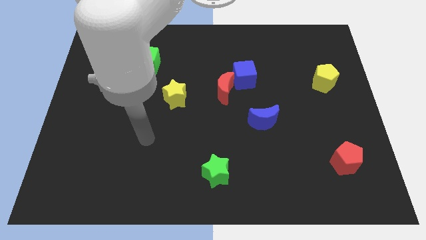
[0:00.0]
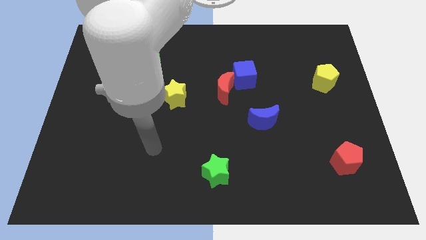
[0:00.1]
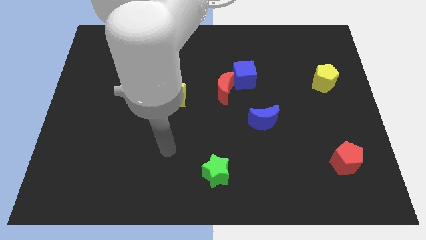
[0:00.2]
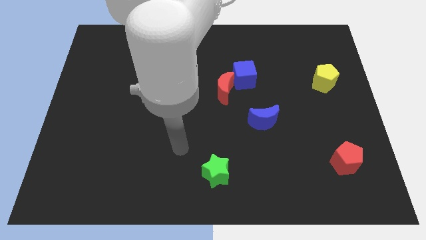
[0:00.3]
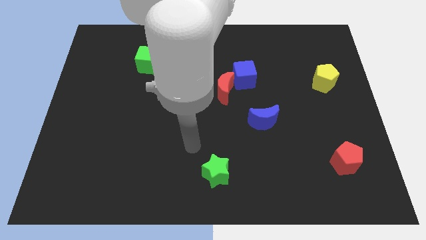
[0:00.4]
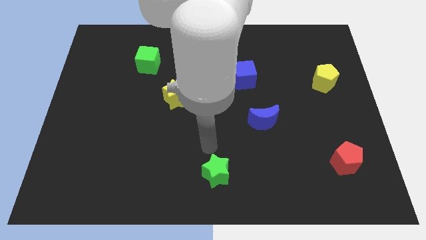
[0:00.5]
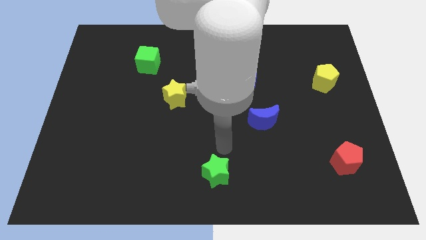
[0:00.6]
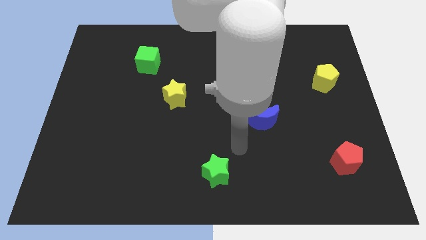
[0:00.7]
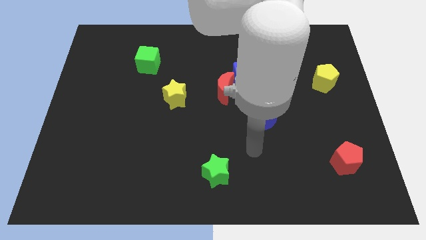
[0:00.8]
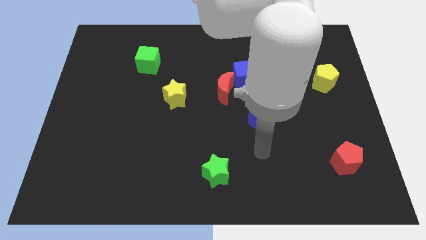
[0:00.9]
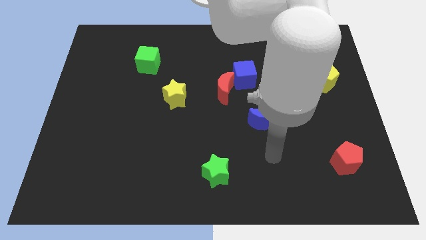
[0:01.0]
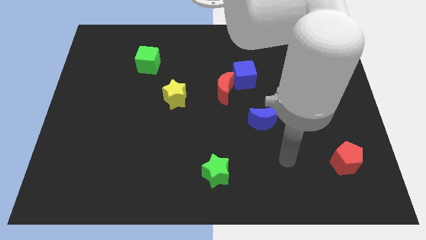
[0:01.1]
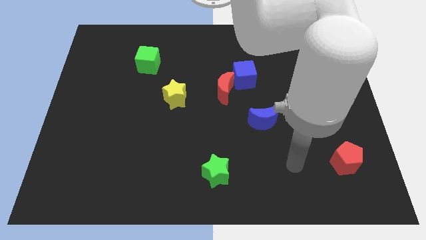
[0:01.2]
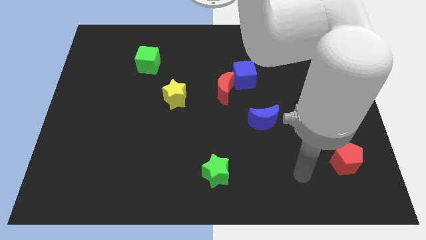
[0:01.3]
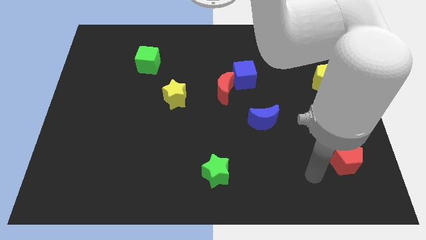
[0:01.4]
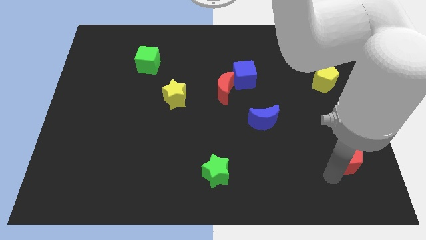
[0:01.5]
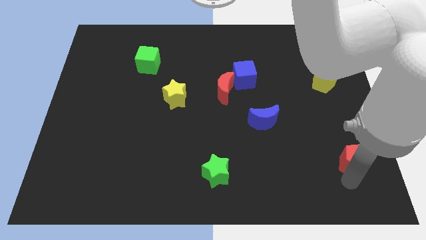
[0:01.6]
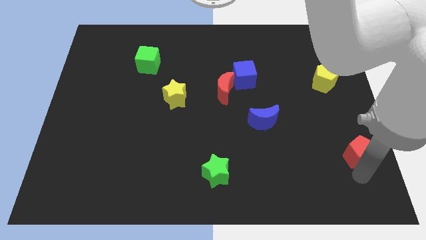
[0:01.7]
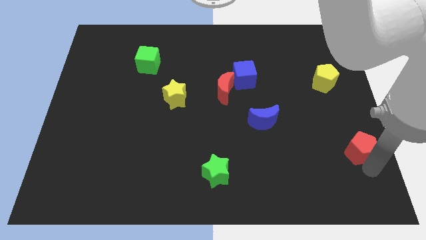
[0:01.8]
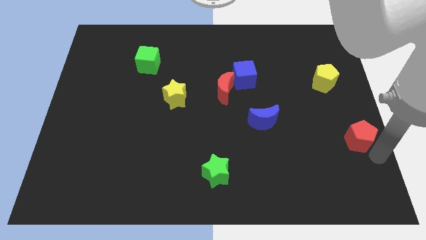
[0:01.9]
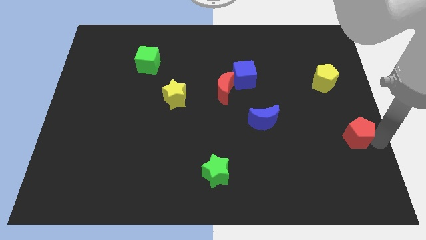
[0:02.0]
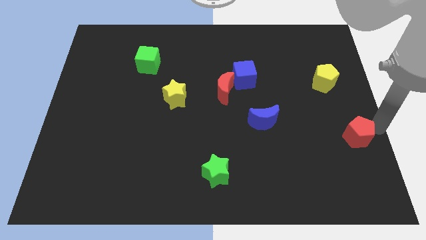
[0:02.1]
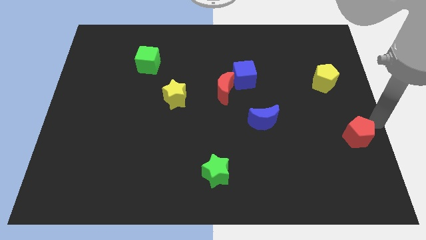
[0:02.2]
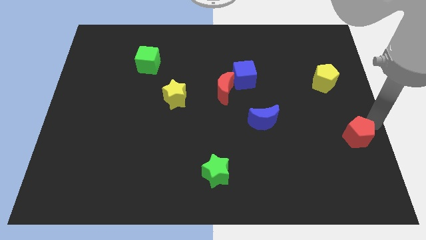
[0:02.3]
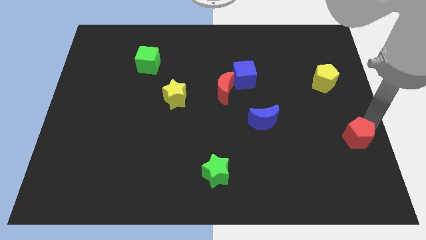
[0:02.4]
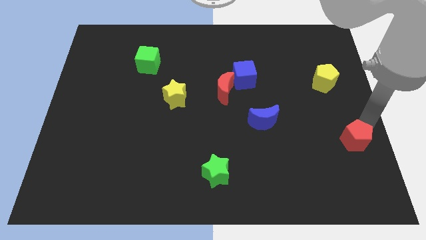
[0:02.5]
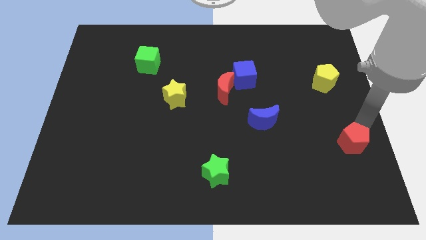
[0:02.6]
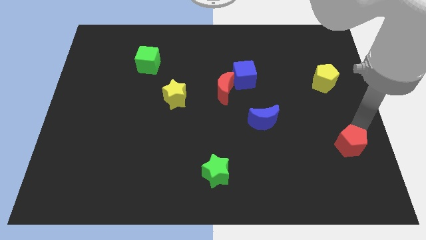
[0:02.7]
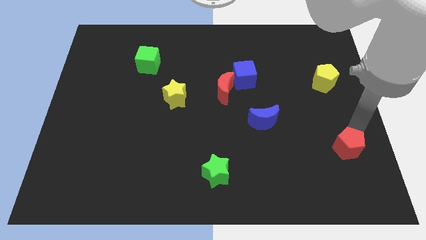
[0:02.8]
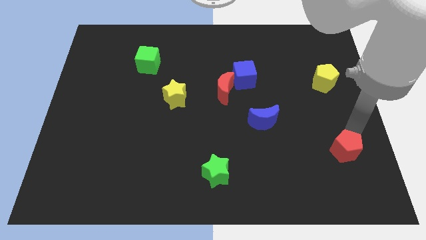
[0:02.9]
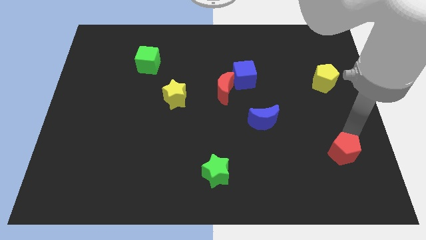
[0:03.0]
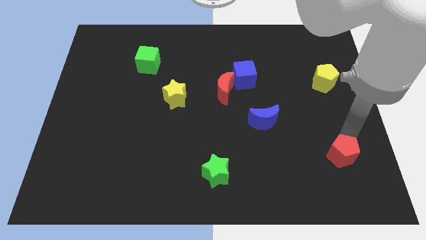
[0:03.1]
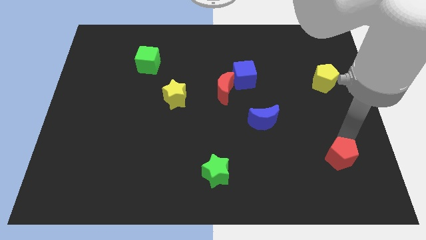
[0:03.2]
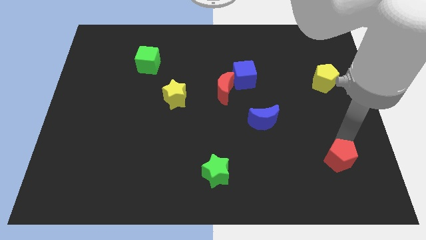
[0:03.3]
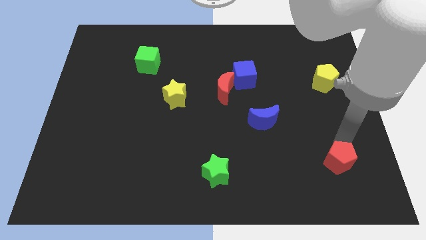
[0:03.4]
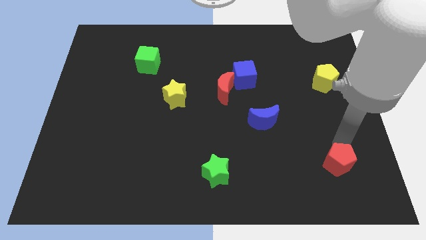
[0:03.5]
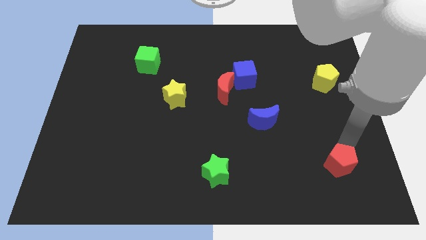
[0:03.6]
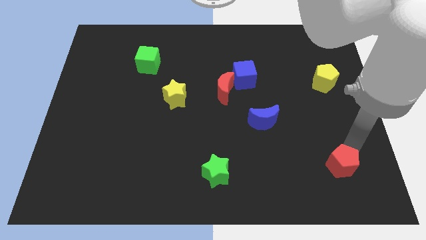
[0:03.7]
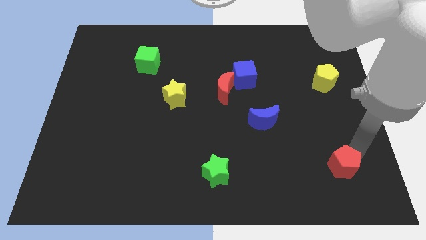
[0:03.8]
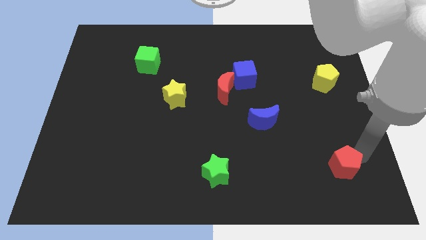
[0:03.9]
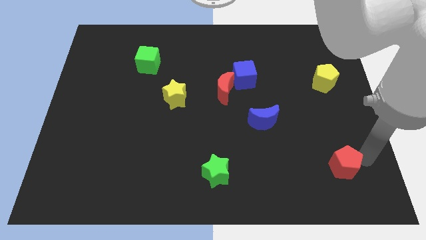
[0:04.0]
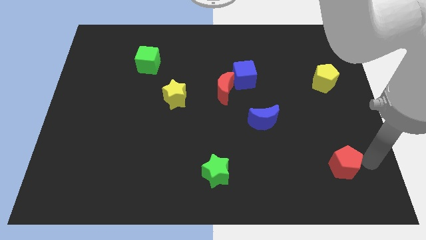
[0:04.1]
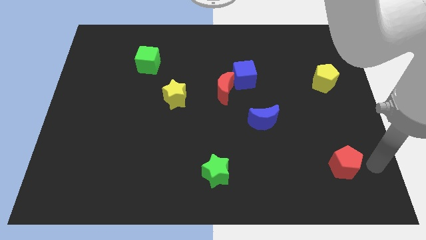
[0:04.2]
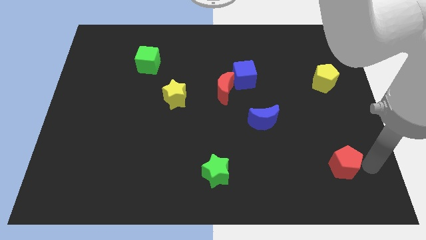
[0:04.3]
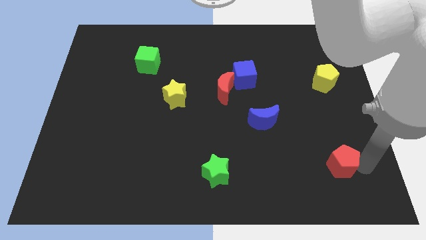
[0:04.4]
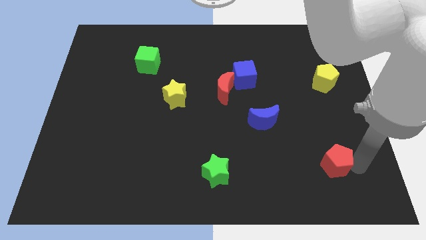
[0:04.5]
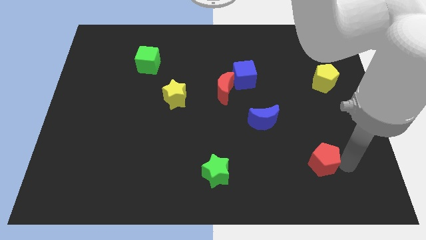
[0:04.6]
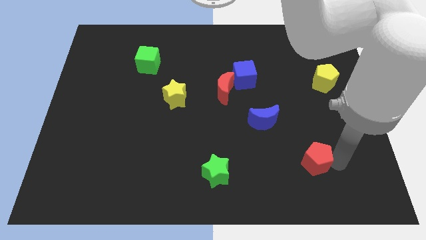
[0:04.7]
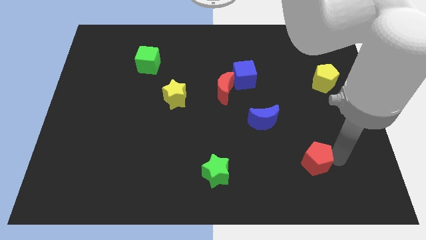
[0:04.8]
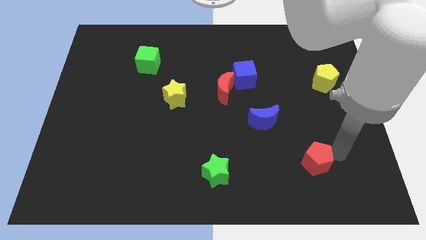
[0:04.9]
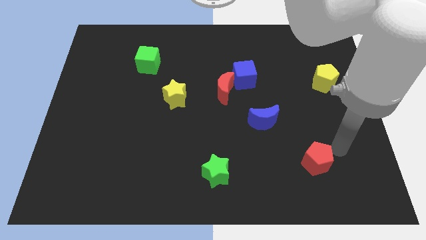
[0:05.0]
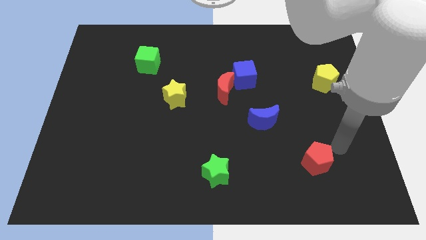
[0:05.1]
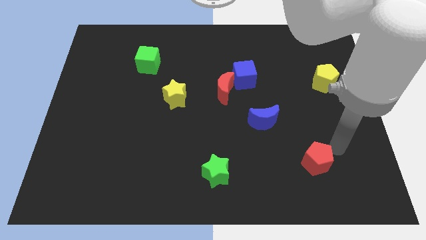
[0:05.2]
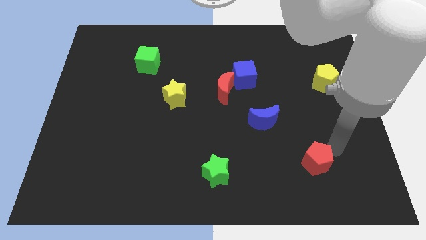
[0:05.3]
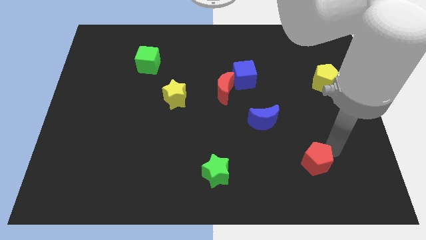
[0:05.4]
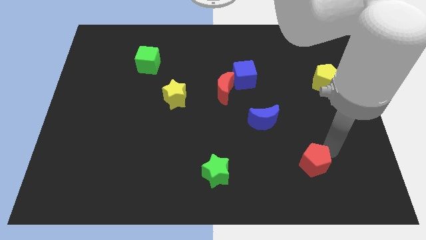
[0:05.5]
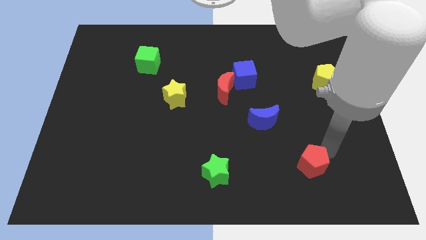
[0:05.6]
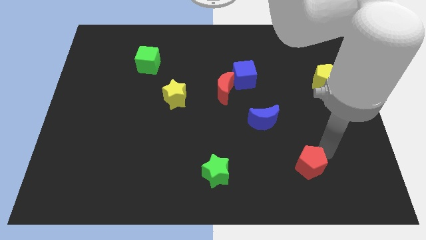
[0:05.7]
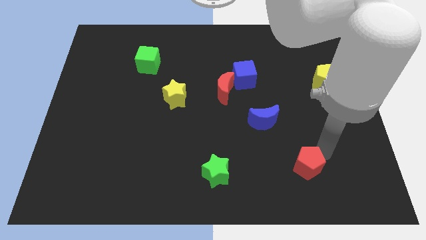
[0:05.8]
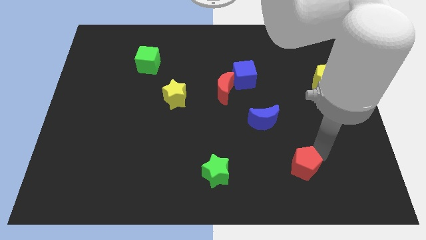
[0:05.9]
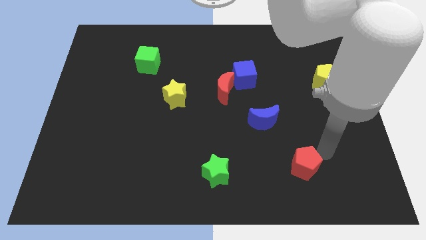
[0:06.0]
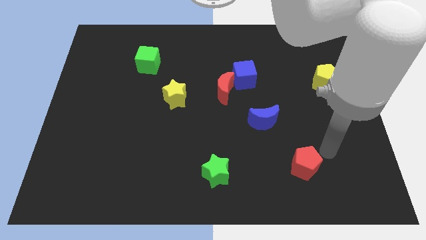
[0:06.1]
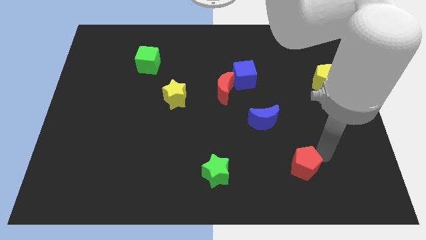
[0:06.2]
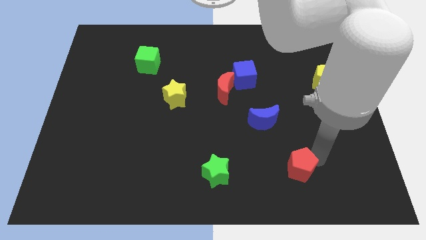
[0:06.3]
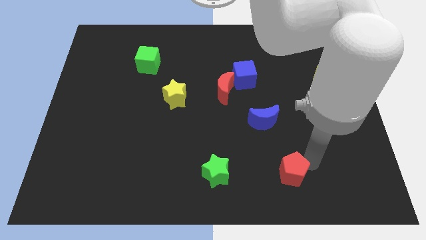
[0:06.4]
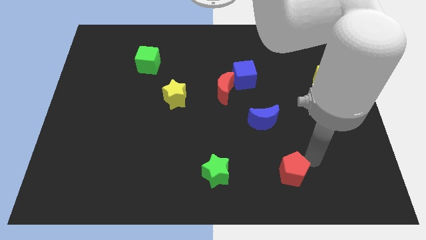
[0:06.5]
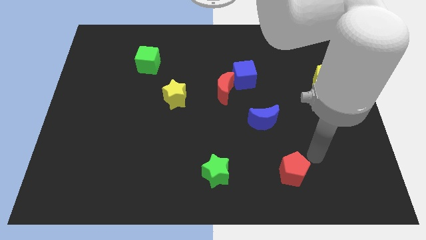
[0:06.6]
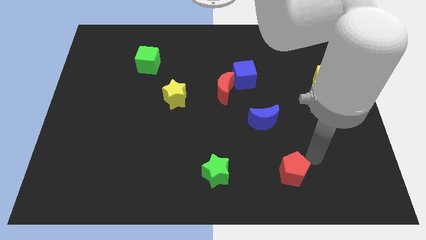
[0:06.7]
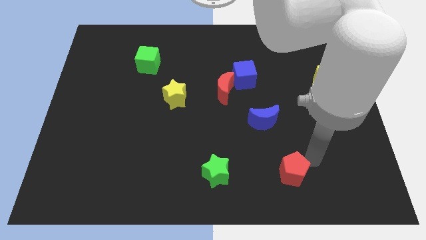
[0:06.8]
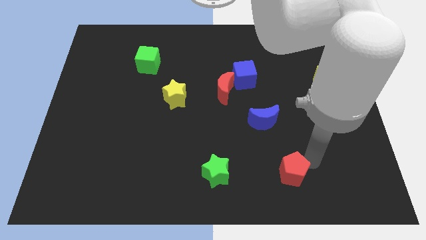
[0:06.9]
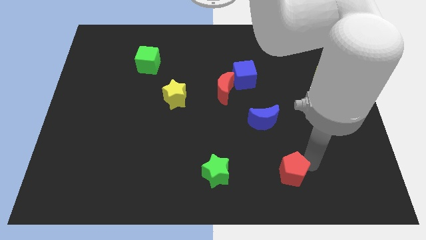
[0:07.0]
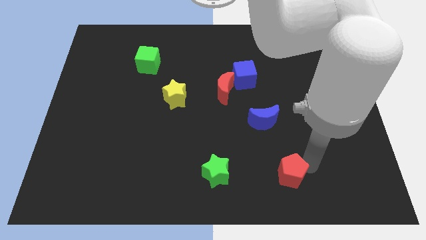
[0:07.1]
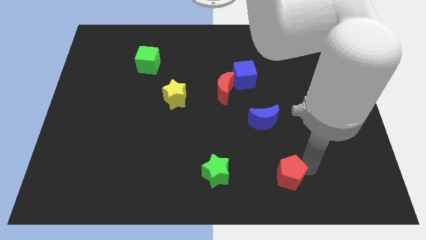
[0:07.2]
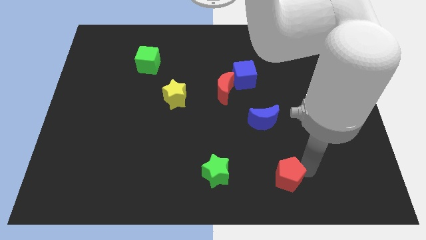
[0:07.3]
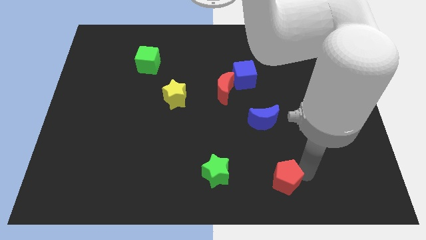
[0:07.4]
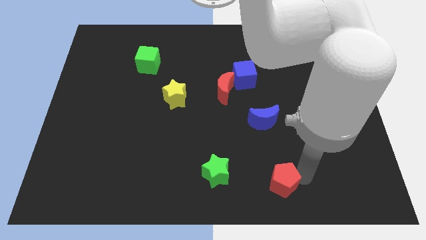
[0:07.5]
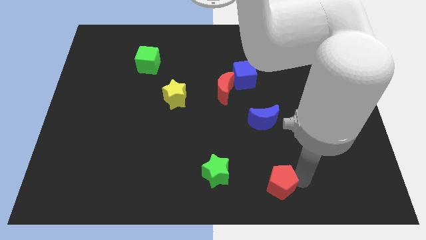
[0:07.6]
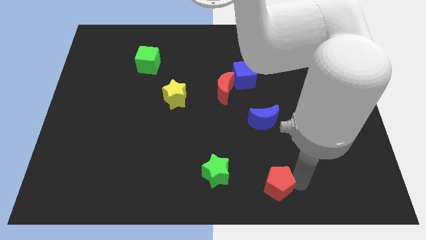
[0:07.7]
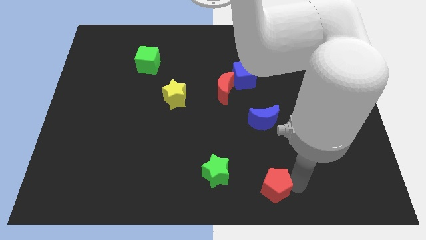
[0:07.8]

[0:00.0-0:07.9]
slide the red pentagon to the bottom side
